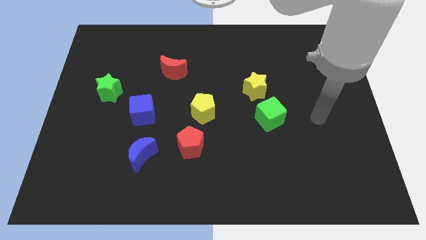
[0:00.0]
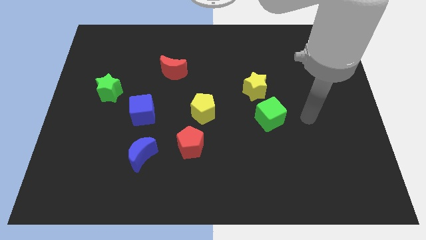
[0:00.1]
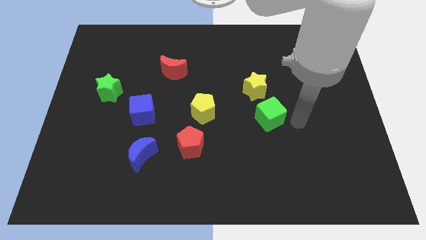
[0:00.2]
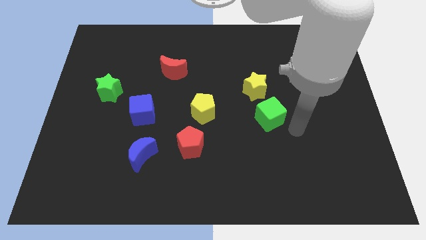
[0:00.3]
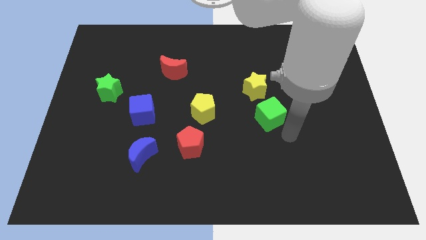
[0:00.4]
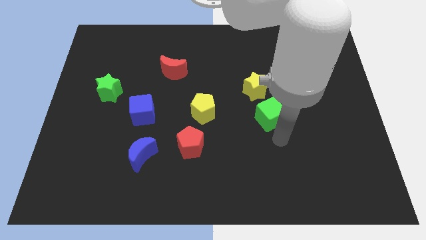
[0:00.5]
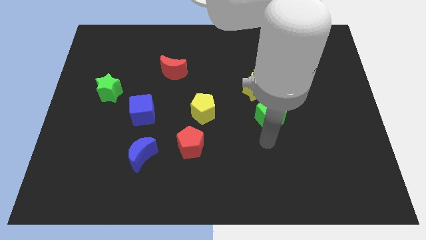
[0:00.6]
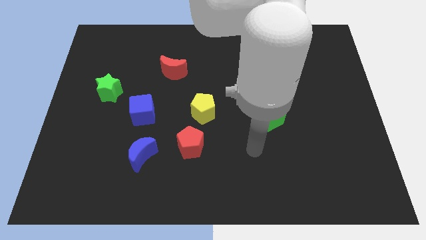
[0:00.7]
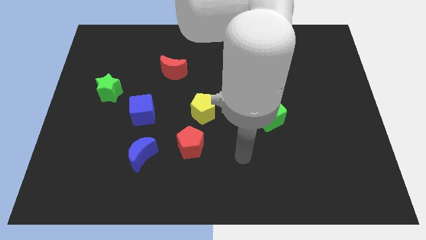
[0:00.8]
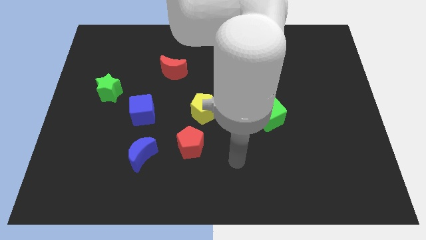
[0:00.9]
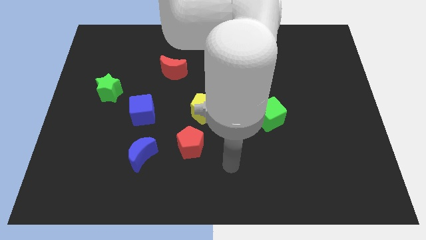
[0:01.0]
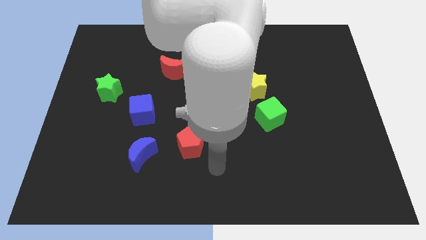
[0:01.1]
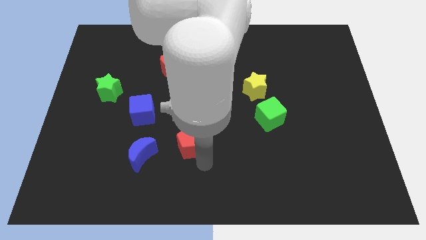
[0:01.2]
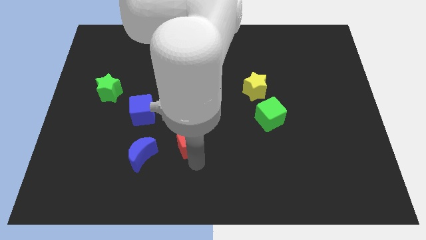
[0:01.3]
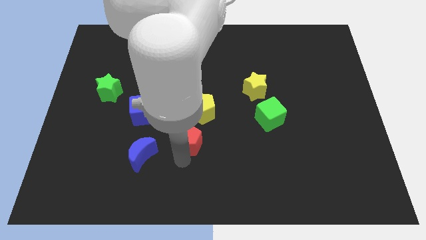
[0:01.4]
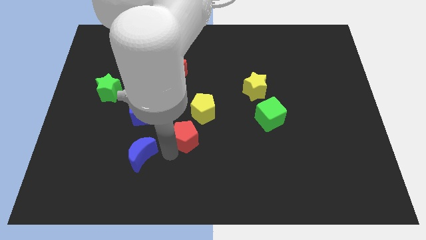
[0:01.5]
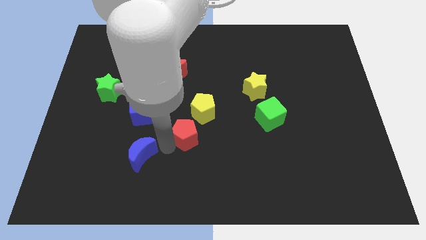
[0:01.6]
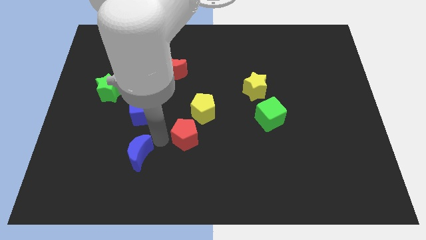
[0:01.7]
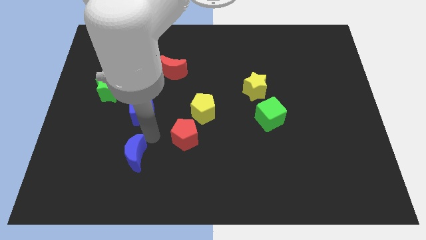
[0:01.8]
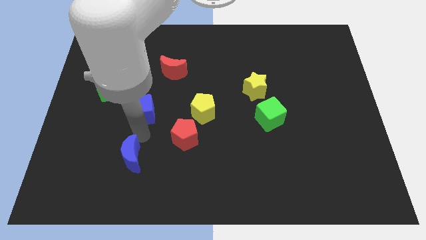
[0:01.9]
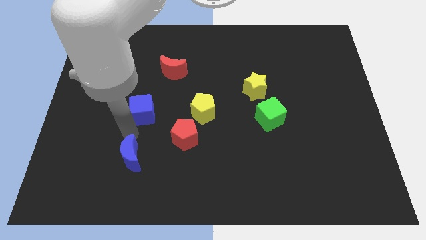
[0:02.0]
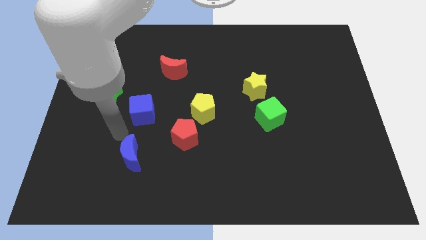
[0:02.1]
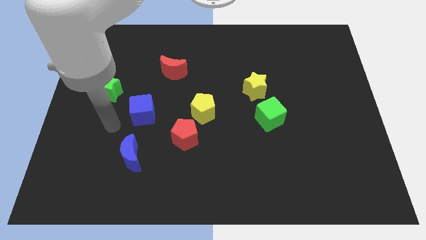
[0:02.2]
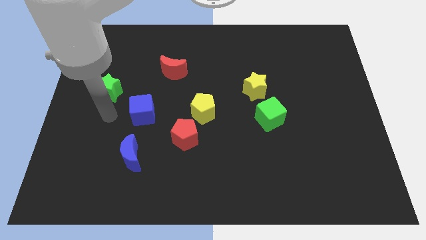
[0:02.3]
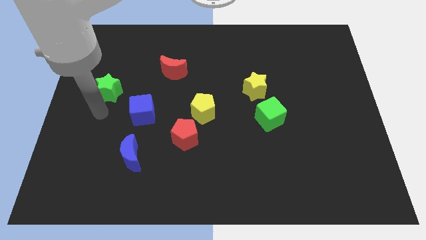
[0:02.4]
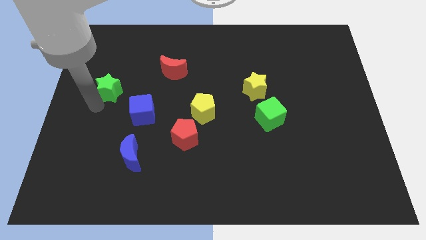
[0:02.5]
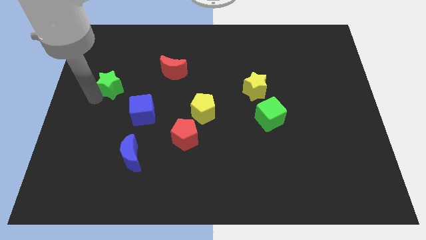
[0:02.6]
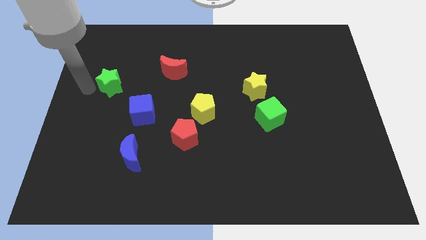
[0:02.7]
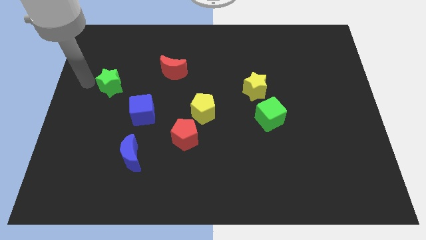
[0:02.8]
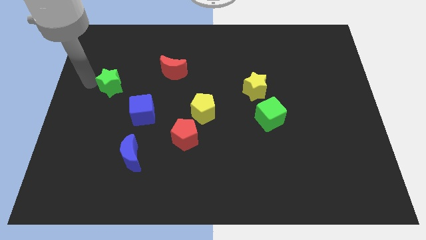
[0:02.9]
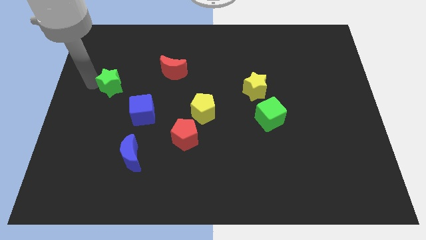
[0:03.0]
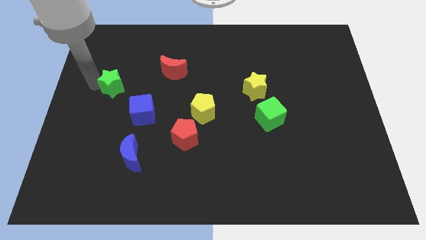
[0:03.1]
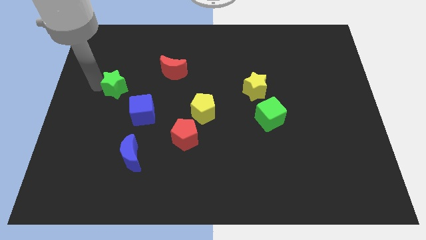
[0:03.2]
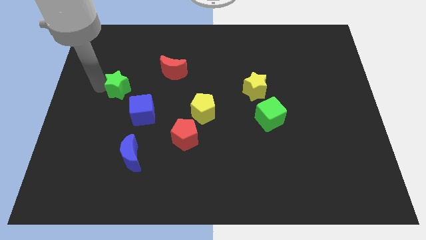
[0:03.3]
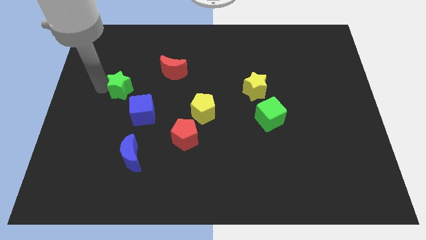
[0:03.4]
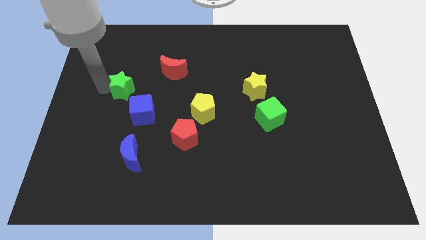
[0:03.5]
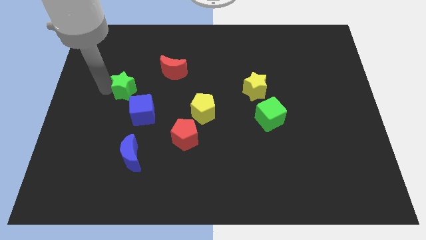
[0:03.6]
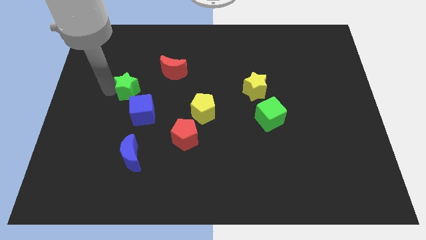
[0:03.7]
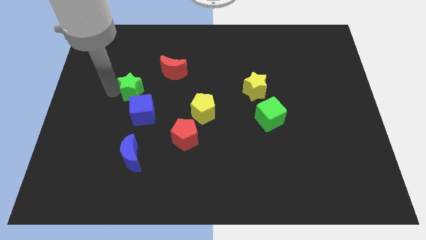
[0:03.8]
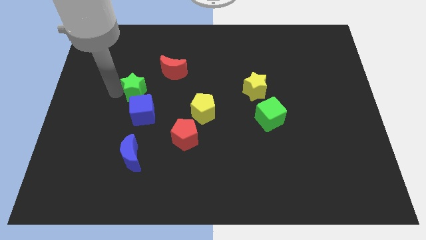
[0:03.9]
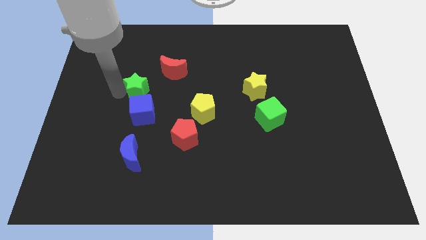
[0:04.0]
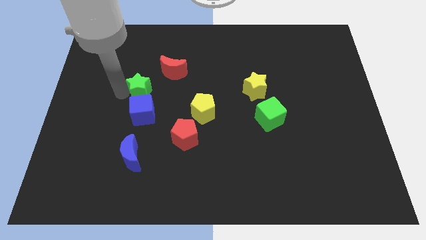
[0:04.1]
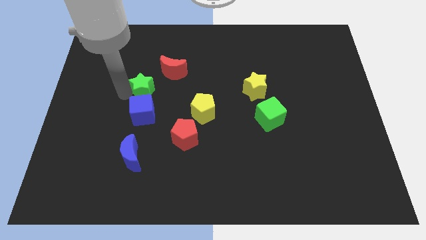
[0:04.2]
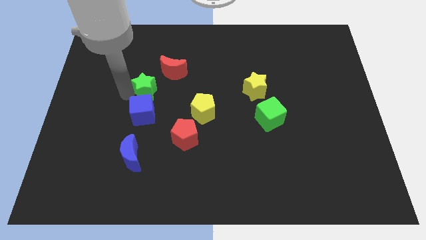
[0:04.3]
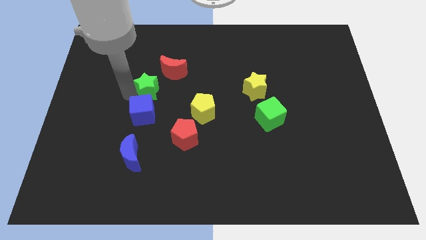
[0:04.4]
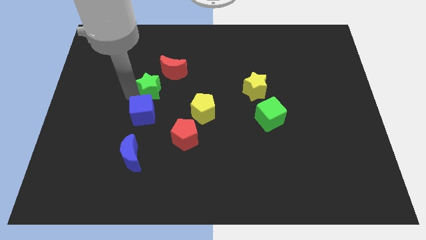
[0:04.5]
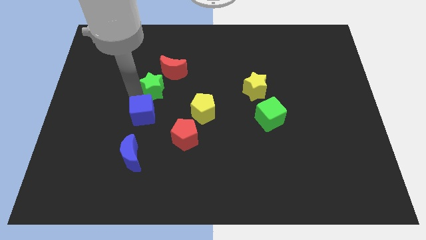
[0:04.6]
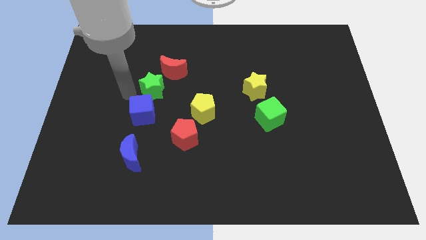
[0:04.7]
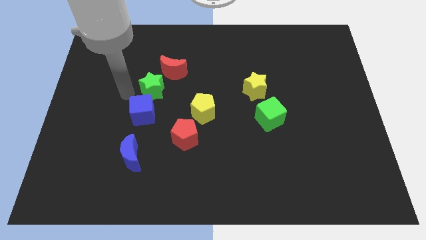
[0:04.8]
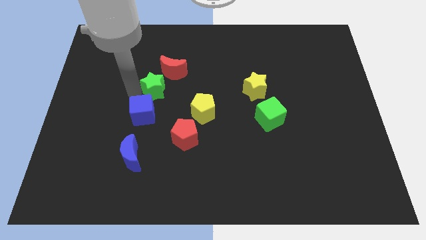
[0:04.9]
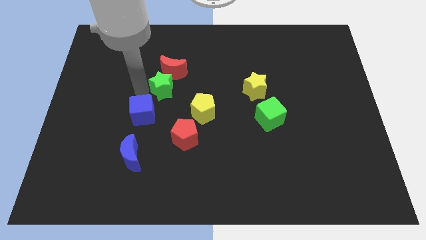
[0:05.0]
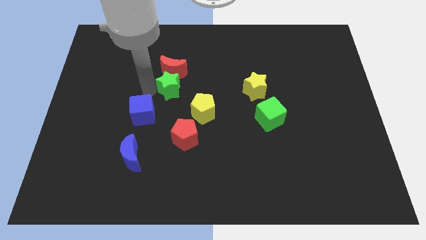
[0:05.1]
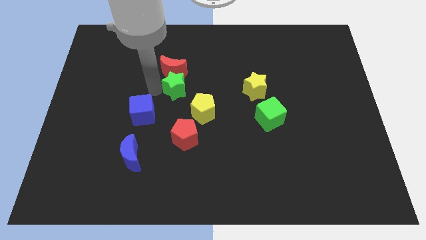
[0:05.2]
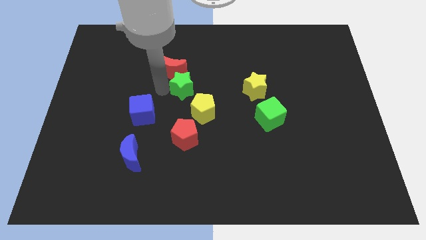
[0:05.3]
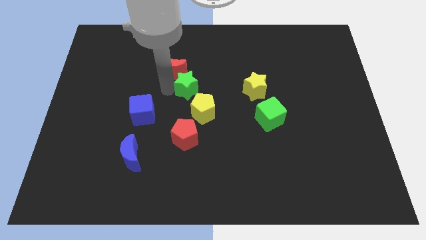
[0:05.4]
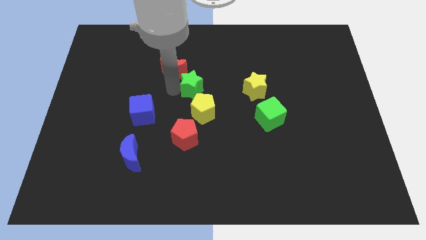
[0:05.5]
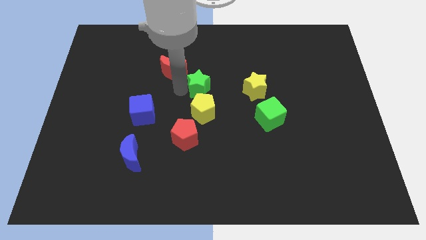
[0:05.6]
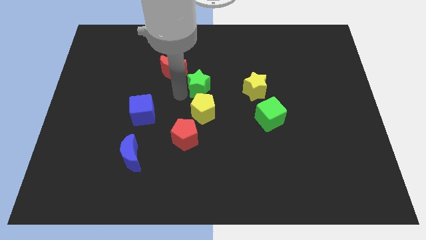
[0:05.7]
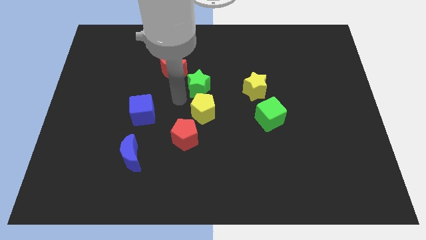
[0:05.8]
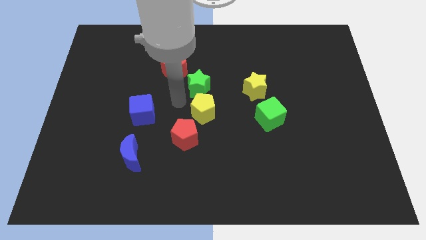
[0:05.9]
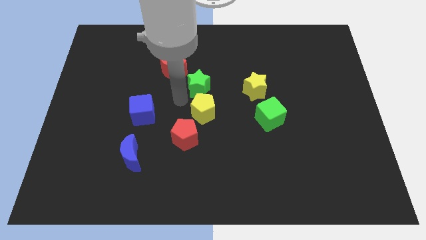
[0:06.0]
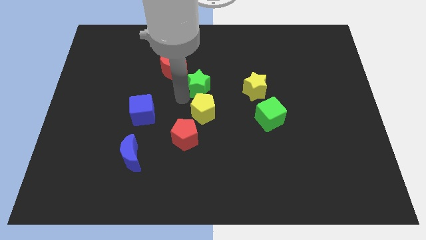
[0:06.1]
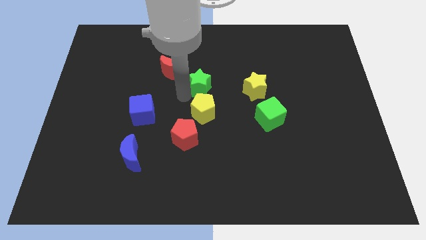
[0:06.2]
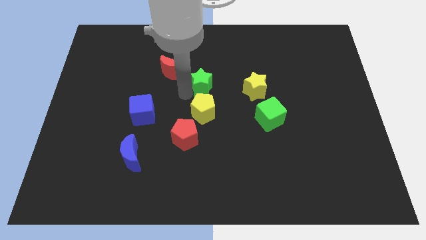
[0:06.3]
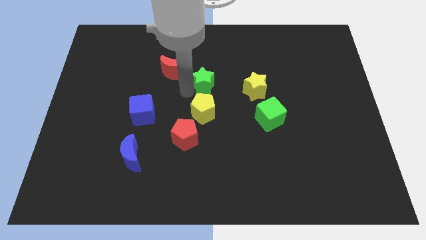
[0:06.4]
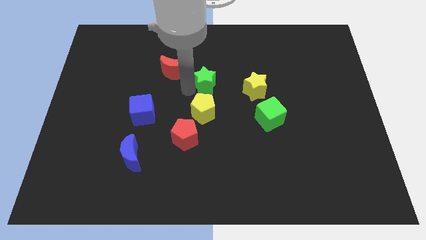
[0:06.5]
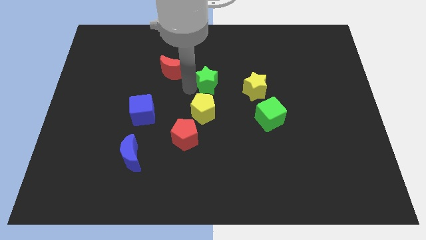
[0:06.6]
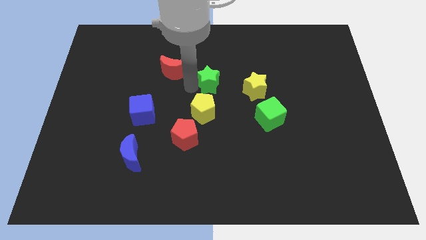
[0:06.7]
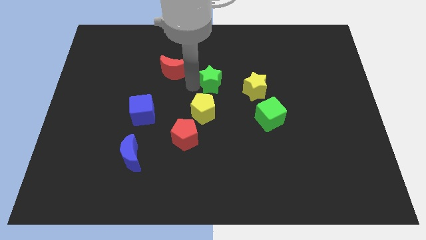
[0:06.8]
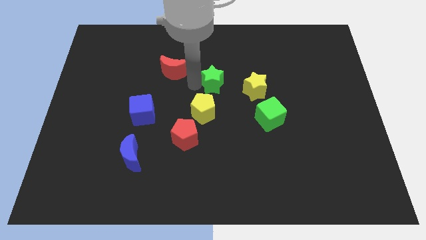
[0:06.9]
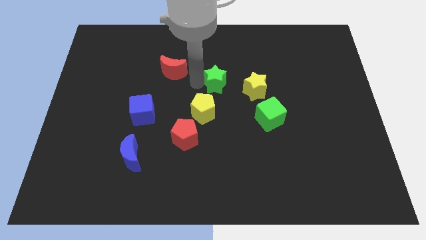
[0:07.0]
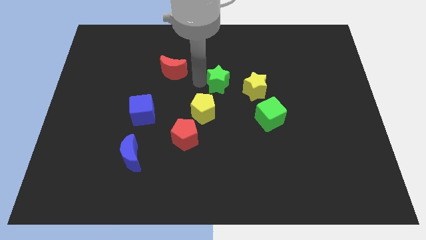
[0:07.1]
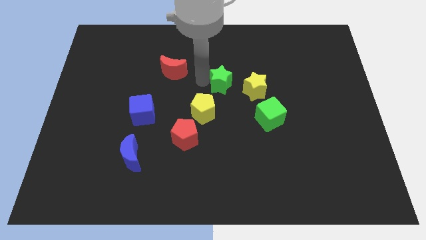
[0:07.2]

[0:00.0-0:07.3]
put the green star to the top left side of the yellow star
